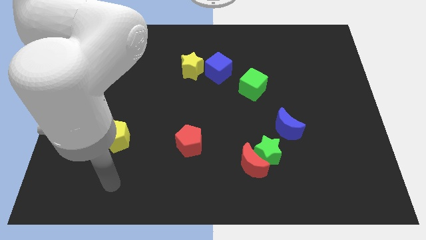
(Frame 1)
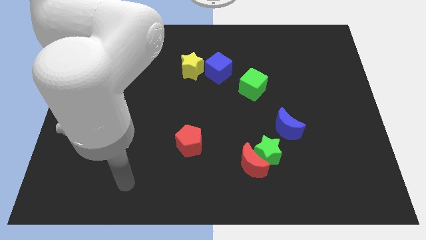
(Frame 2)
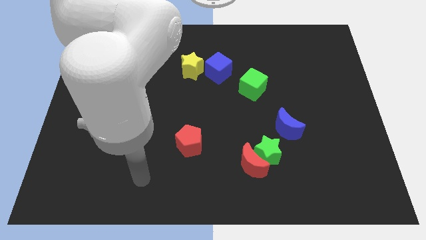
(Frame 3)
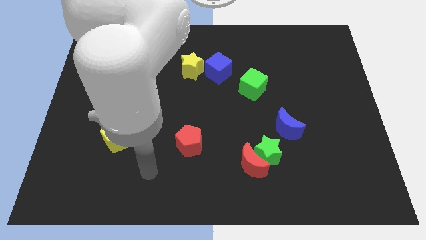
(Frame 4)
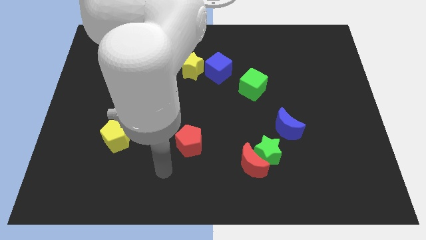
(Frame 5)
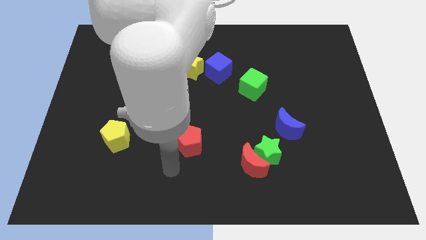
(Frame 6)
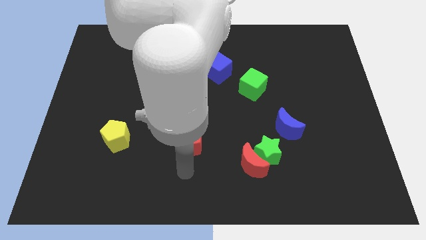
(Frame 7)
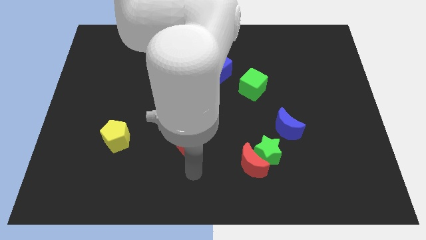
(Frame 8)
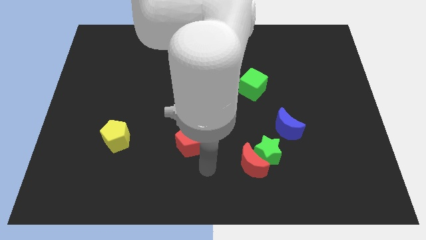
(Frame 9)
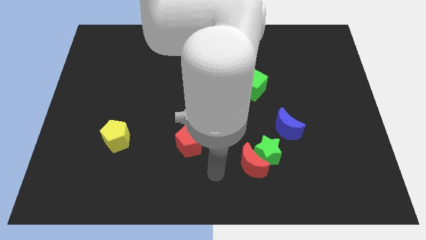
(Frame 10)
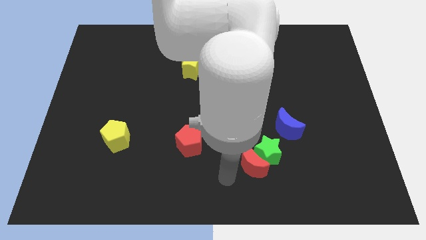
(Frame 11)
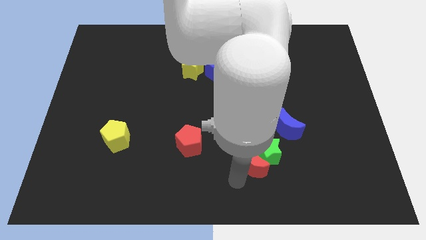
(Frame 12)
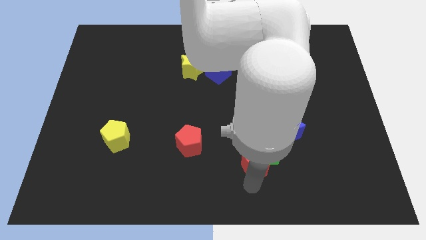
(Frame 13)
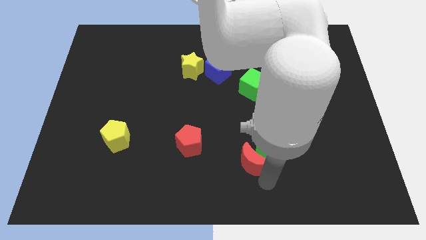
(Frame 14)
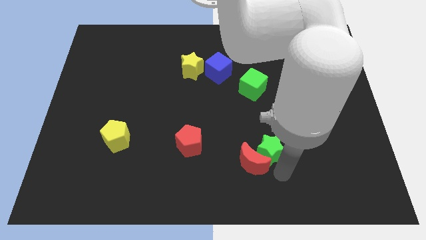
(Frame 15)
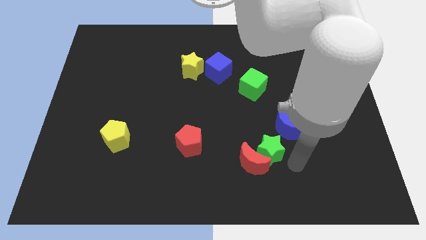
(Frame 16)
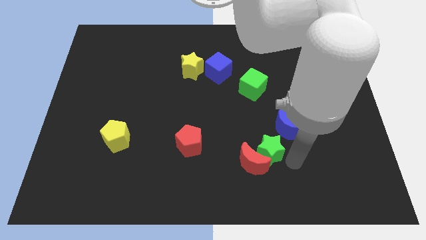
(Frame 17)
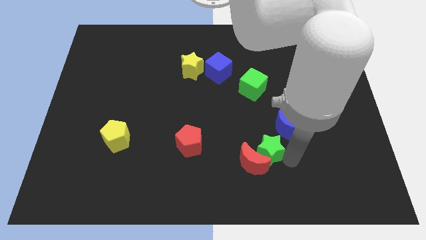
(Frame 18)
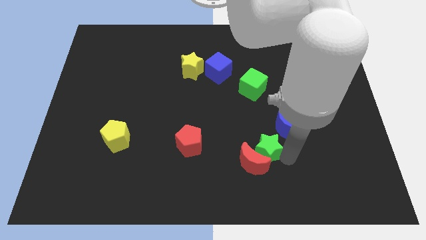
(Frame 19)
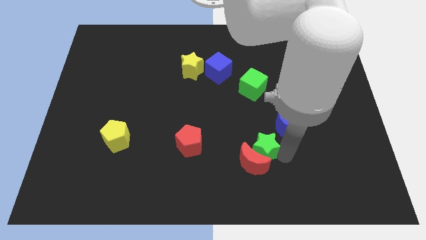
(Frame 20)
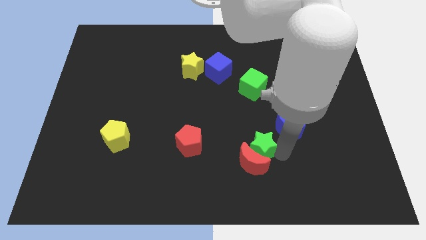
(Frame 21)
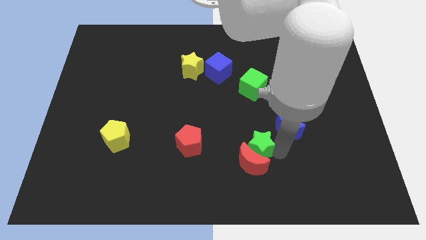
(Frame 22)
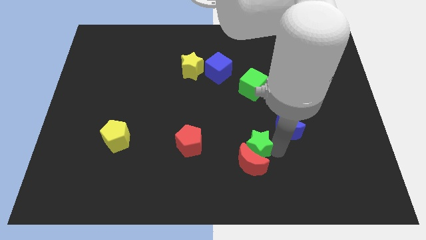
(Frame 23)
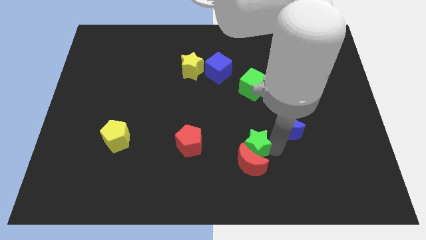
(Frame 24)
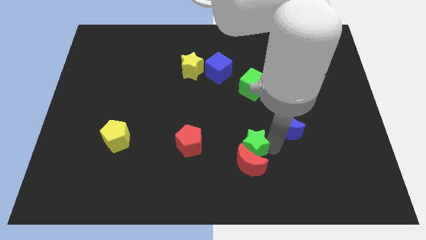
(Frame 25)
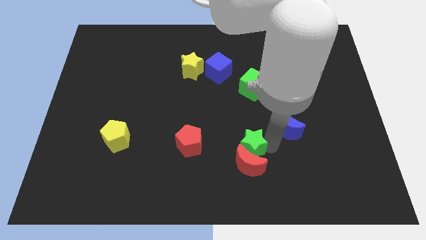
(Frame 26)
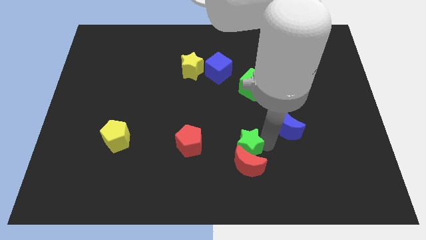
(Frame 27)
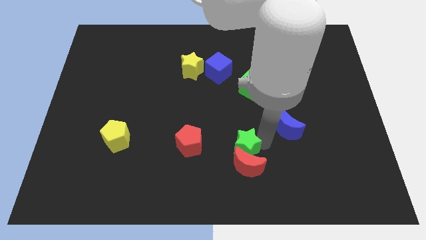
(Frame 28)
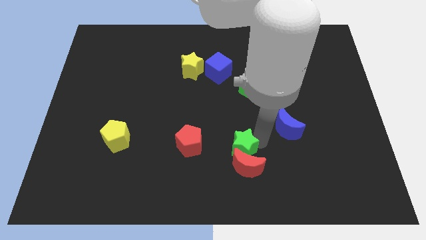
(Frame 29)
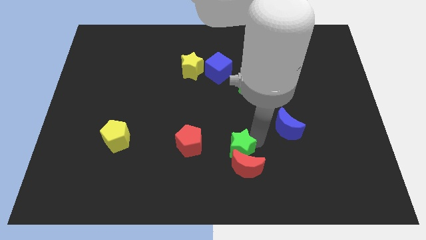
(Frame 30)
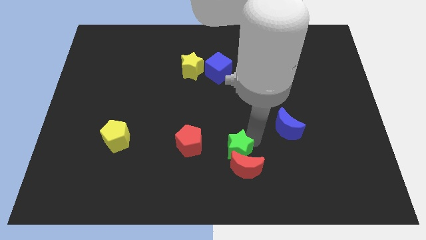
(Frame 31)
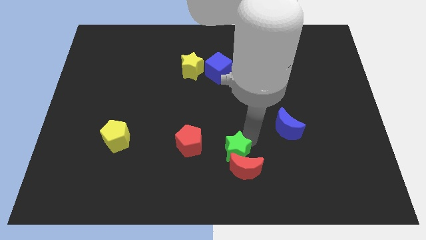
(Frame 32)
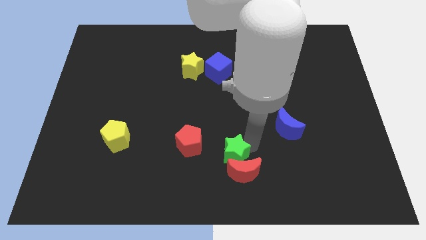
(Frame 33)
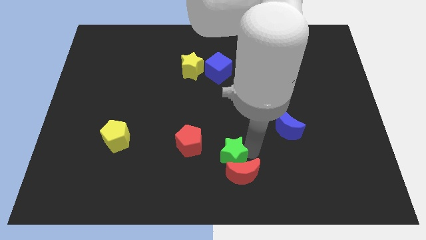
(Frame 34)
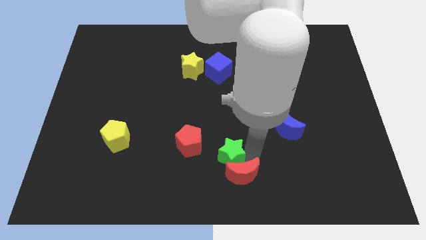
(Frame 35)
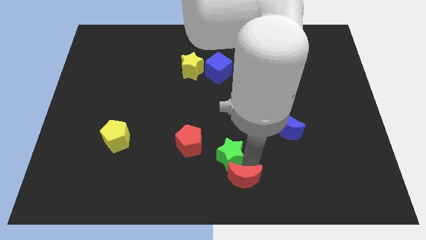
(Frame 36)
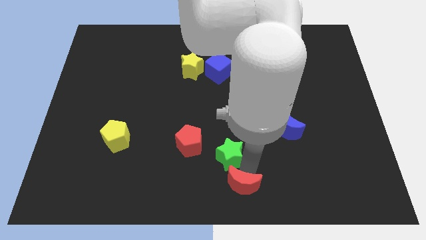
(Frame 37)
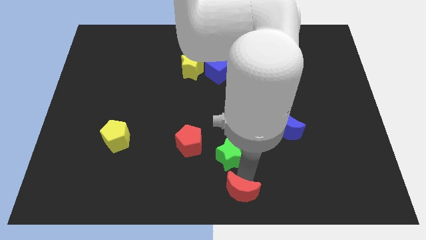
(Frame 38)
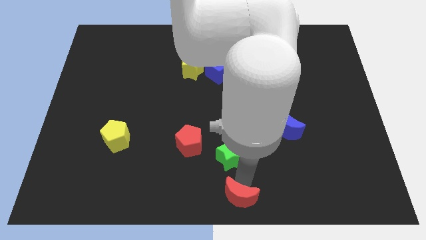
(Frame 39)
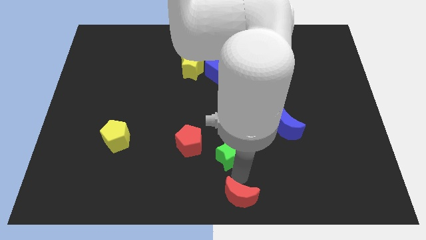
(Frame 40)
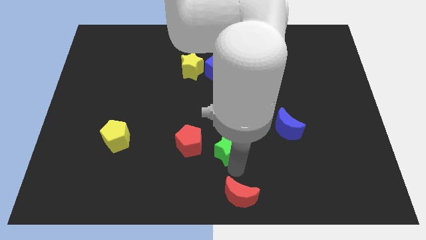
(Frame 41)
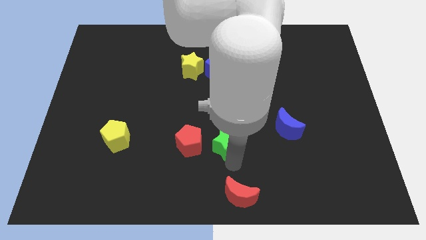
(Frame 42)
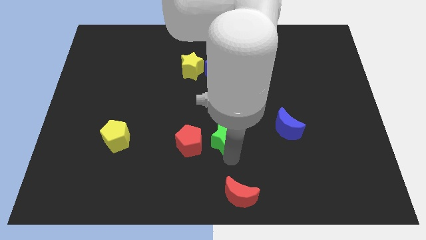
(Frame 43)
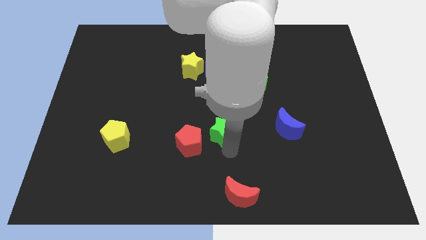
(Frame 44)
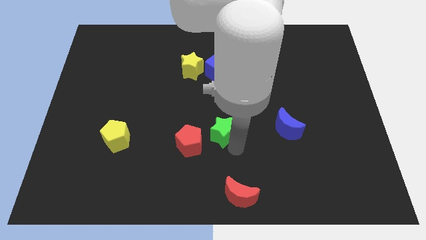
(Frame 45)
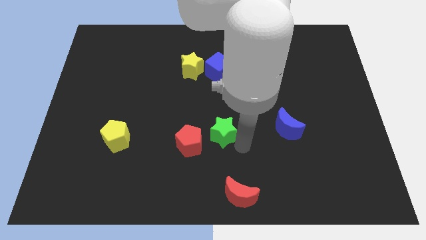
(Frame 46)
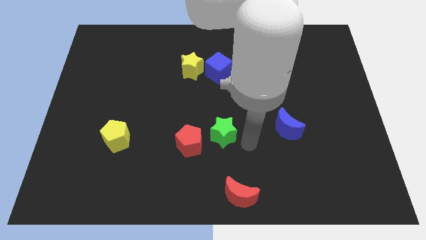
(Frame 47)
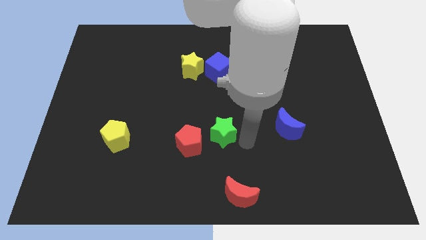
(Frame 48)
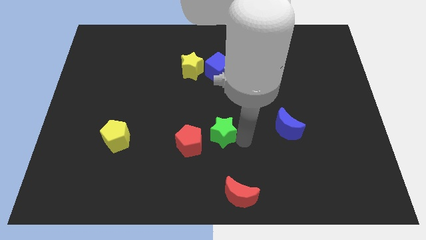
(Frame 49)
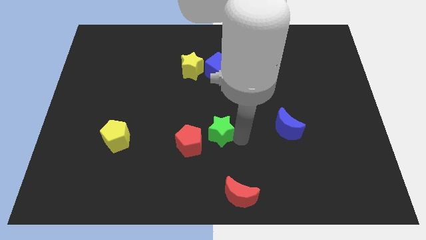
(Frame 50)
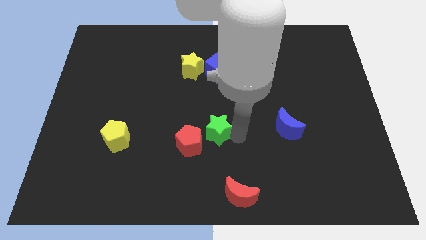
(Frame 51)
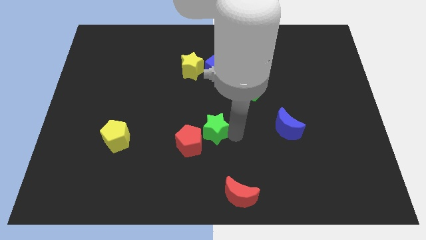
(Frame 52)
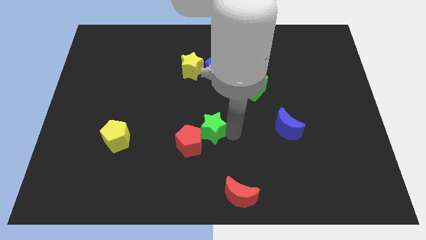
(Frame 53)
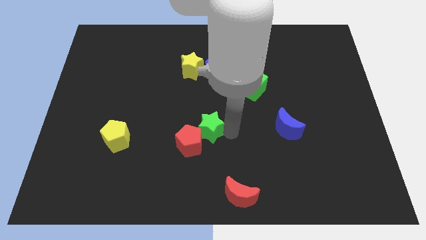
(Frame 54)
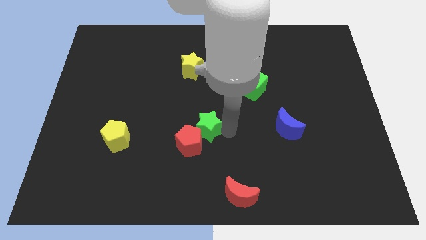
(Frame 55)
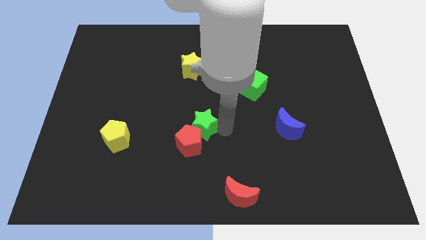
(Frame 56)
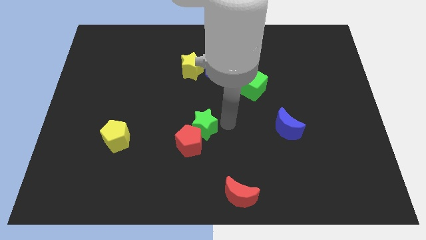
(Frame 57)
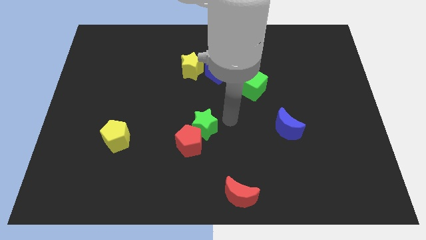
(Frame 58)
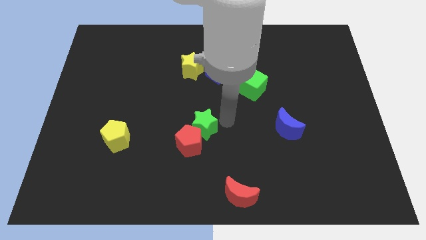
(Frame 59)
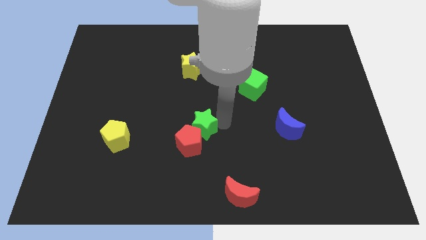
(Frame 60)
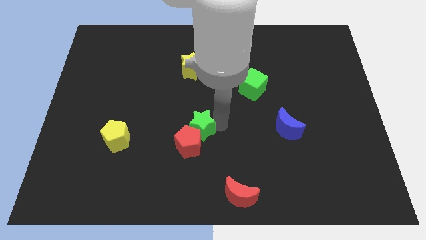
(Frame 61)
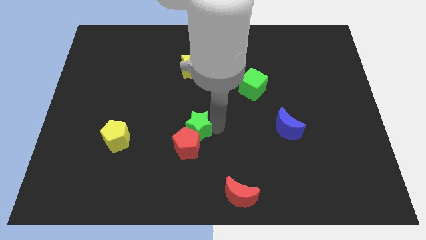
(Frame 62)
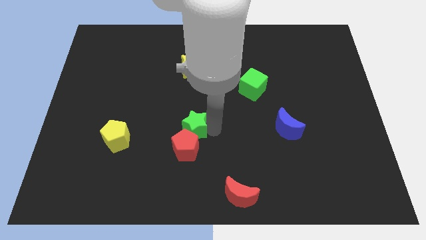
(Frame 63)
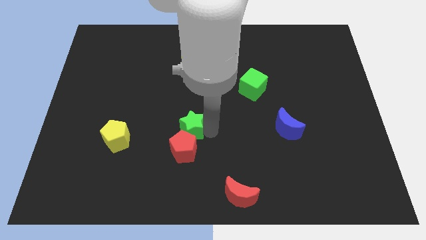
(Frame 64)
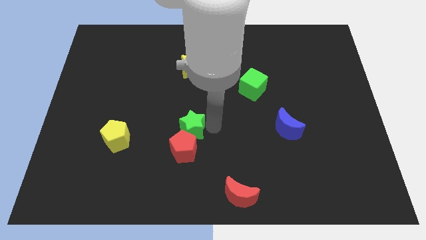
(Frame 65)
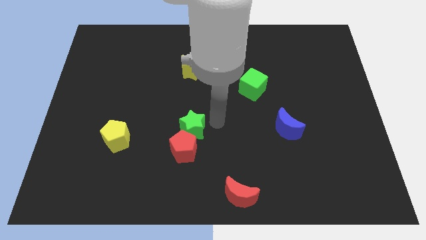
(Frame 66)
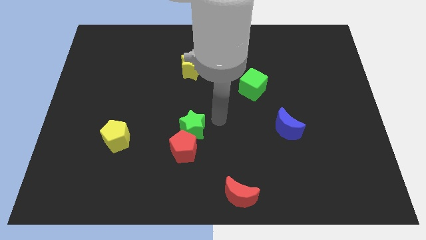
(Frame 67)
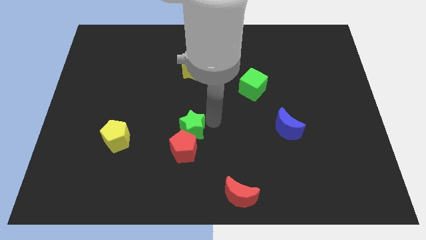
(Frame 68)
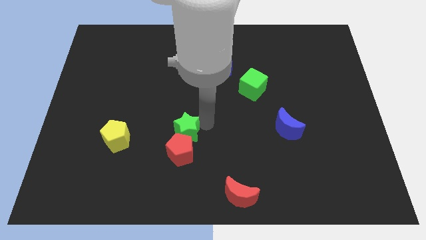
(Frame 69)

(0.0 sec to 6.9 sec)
push the green star just right of the yellow pentagon

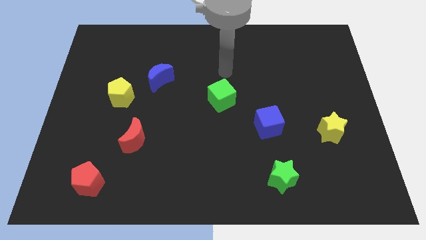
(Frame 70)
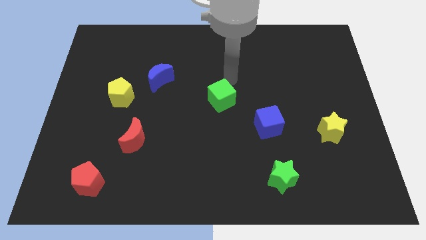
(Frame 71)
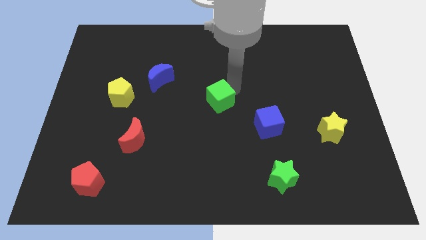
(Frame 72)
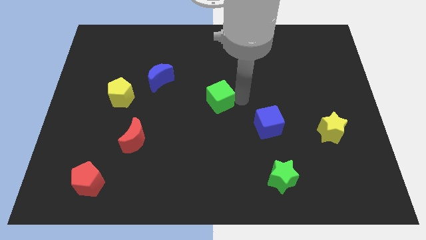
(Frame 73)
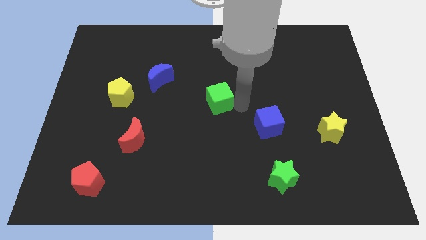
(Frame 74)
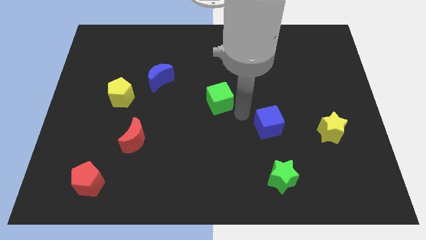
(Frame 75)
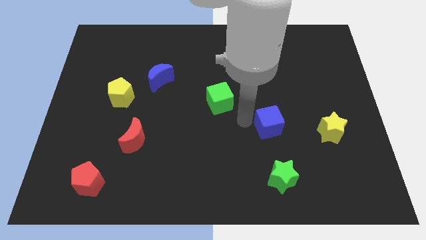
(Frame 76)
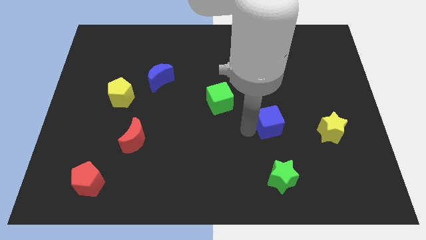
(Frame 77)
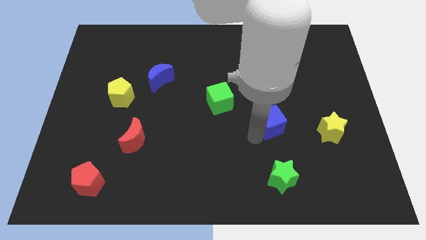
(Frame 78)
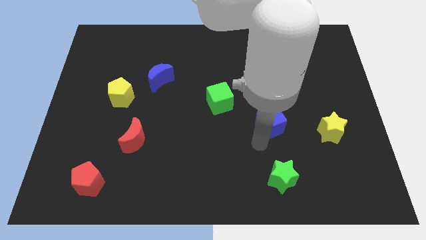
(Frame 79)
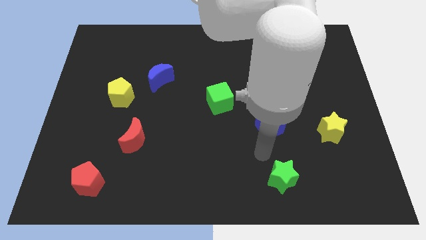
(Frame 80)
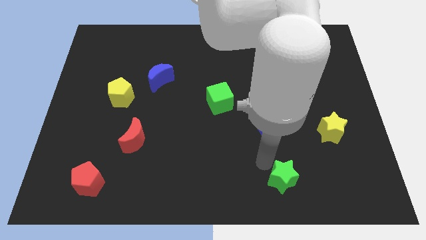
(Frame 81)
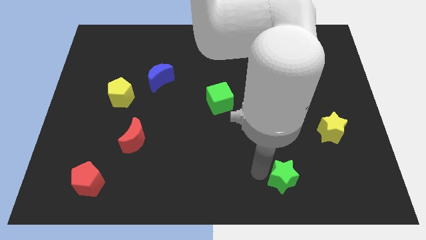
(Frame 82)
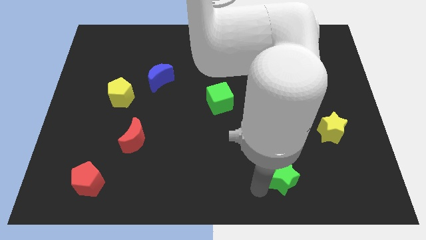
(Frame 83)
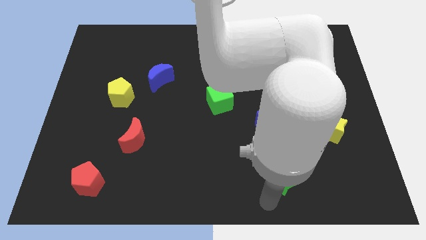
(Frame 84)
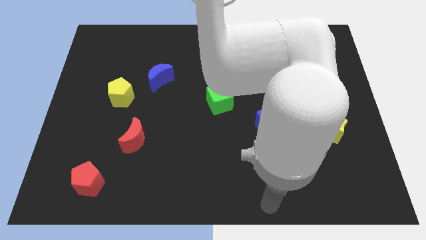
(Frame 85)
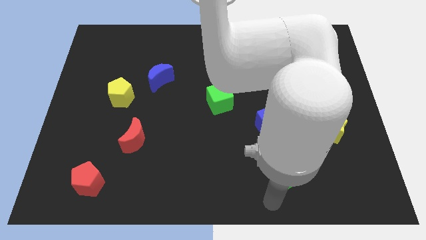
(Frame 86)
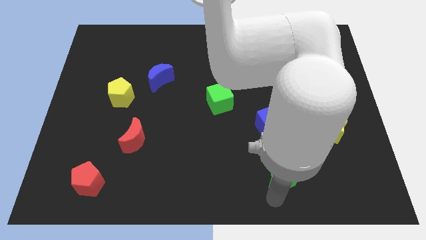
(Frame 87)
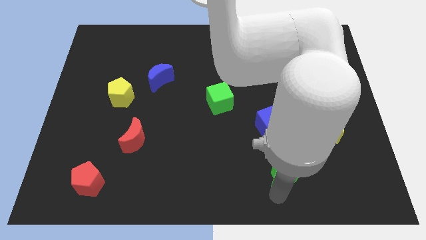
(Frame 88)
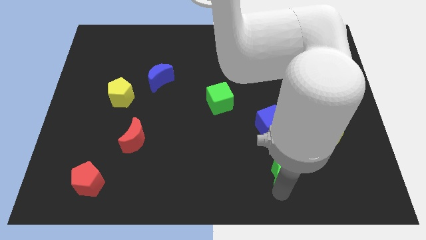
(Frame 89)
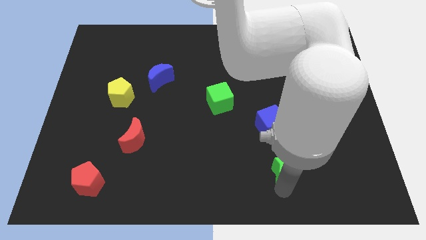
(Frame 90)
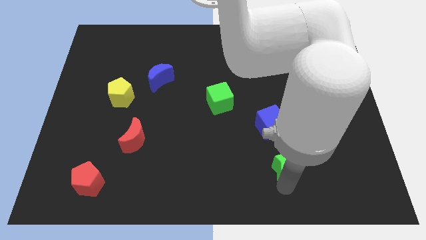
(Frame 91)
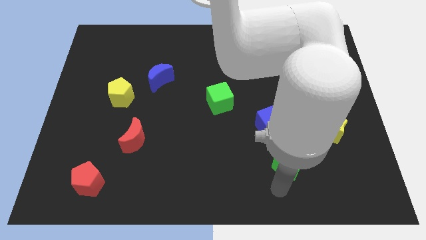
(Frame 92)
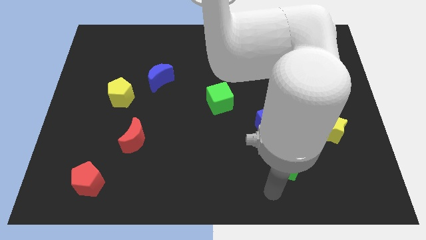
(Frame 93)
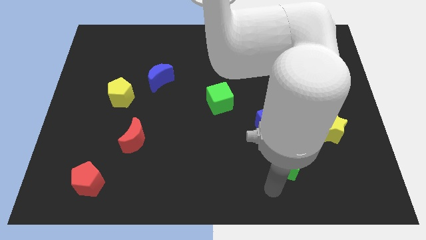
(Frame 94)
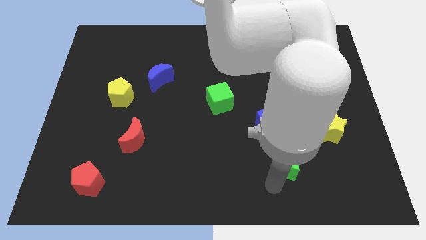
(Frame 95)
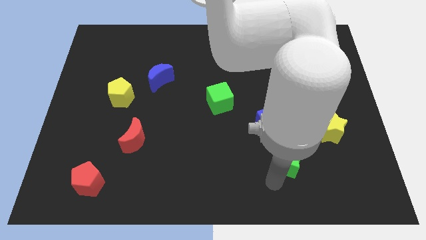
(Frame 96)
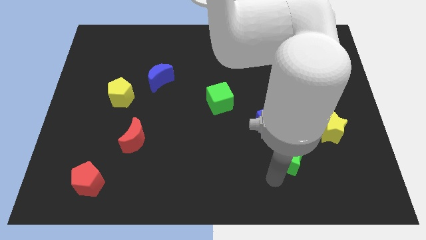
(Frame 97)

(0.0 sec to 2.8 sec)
slide the green star to the bottom right of the blue cube
